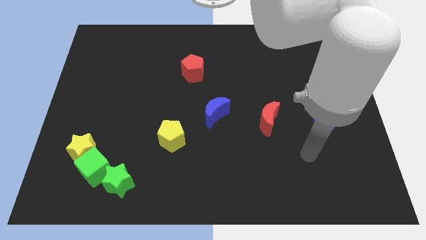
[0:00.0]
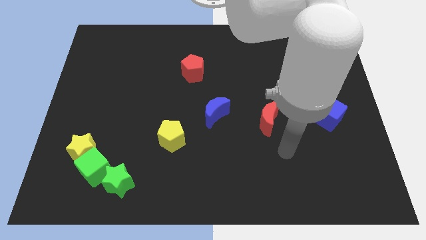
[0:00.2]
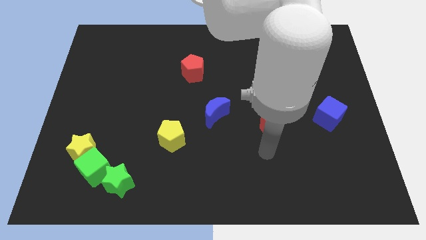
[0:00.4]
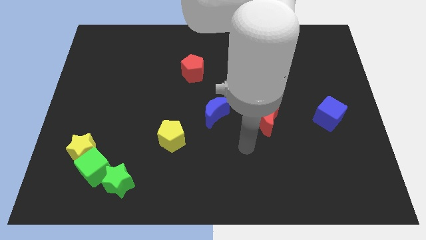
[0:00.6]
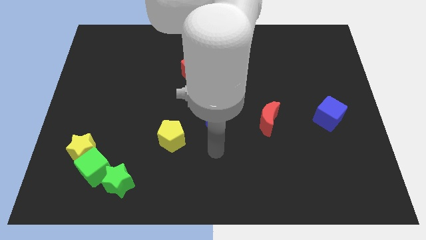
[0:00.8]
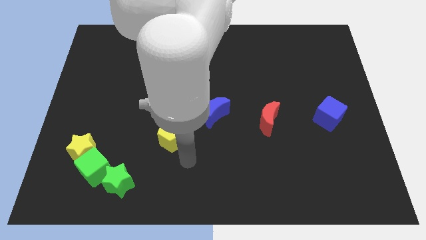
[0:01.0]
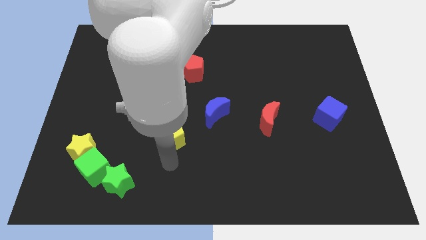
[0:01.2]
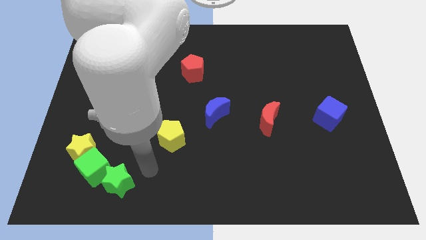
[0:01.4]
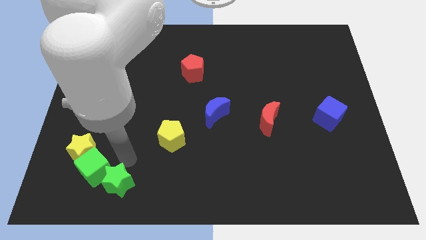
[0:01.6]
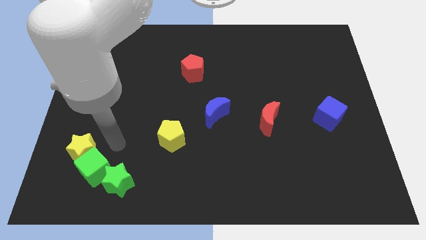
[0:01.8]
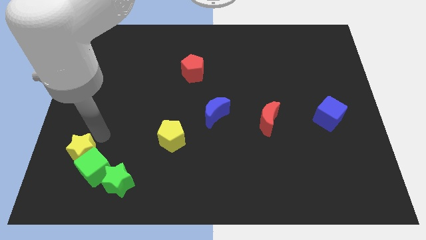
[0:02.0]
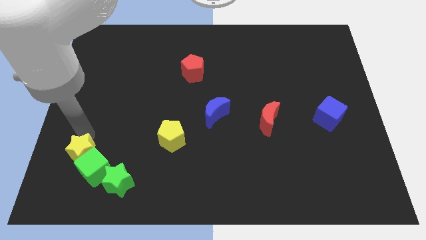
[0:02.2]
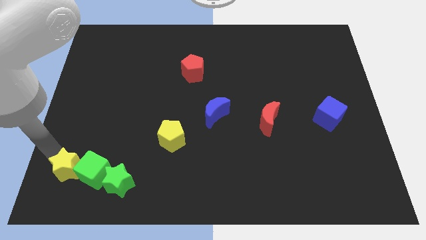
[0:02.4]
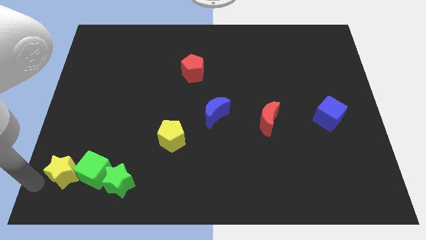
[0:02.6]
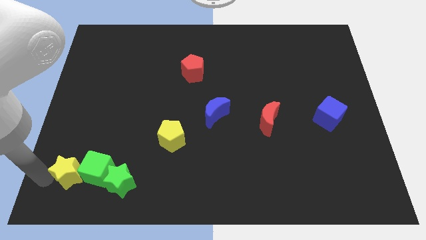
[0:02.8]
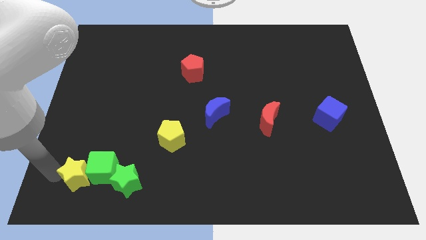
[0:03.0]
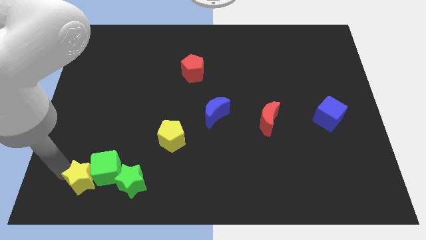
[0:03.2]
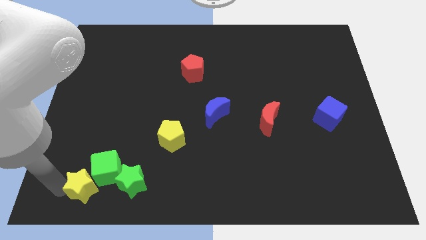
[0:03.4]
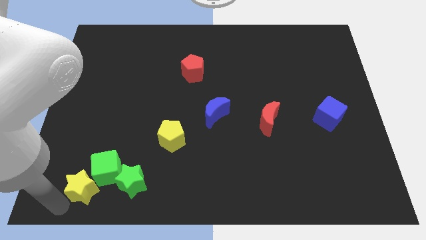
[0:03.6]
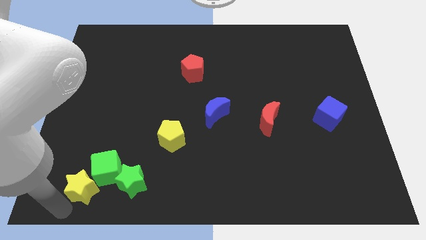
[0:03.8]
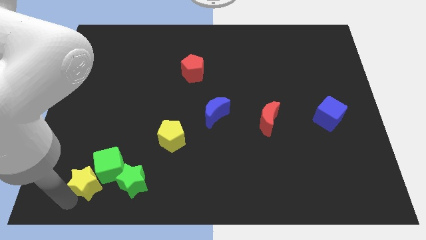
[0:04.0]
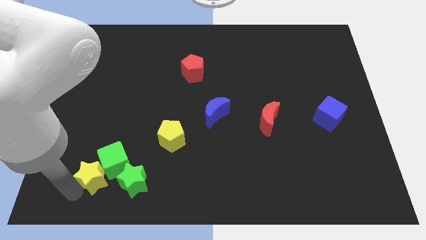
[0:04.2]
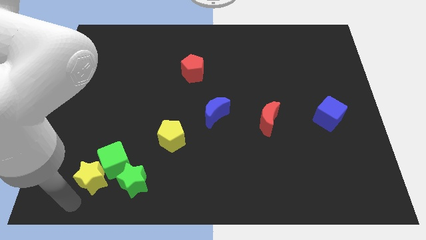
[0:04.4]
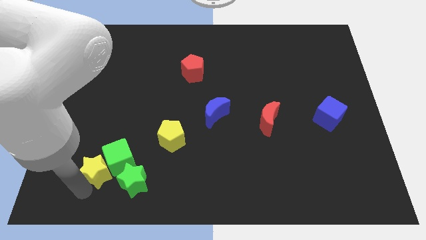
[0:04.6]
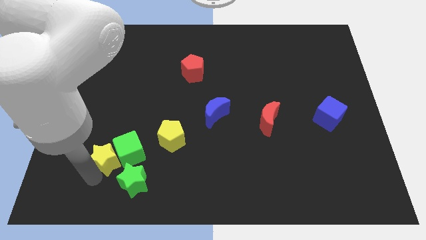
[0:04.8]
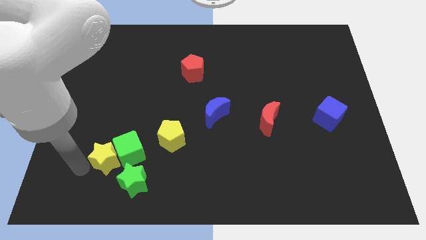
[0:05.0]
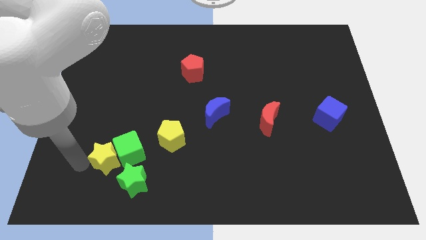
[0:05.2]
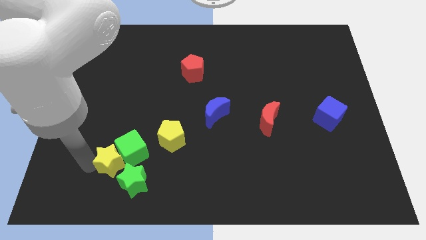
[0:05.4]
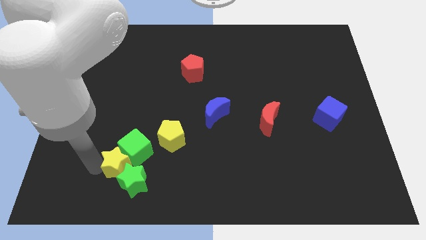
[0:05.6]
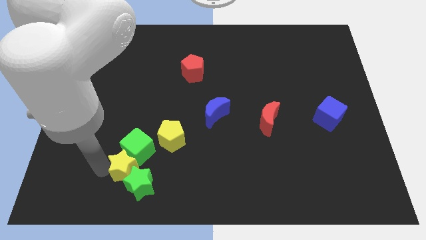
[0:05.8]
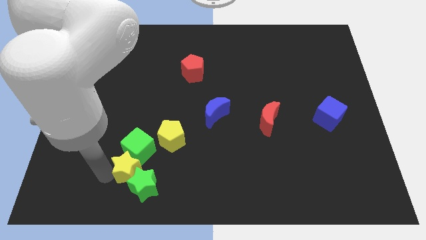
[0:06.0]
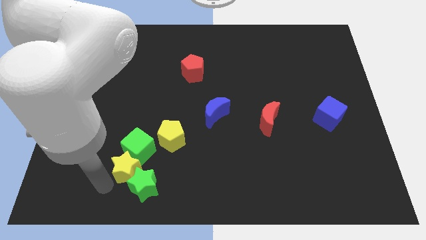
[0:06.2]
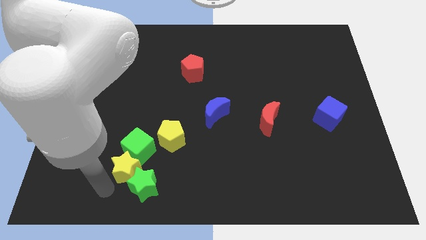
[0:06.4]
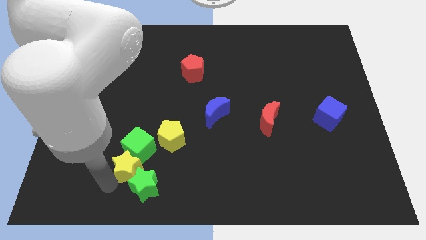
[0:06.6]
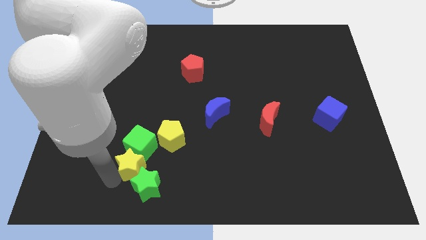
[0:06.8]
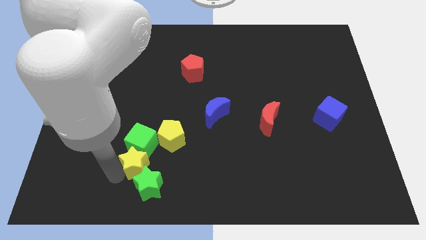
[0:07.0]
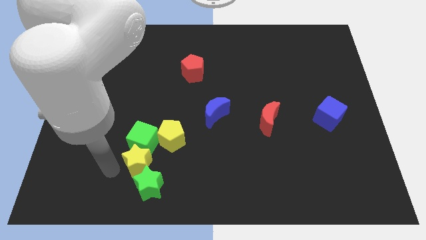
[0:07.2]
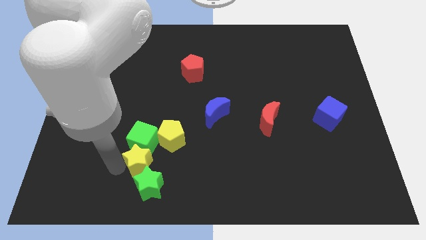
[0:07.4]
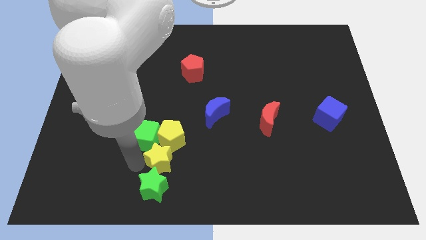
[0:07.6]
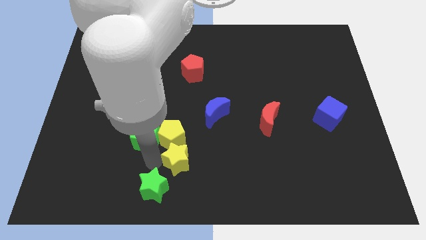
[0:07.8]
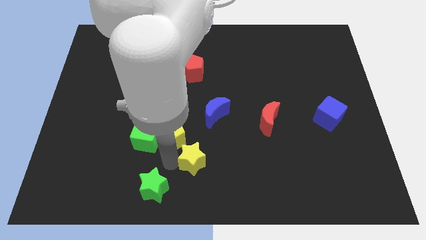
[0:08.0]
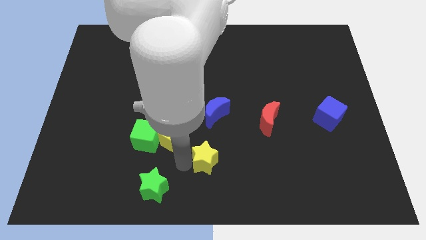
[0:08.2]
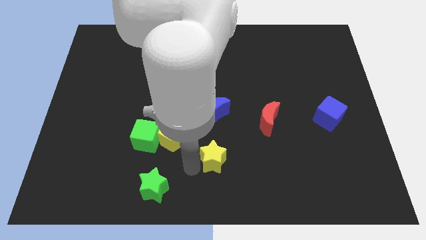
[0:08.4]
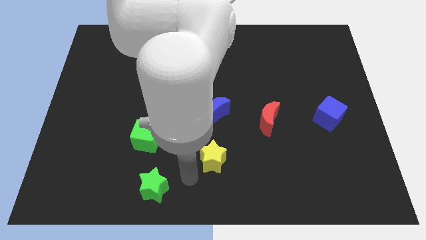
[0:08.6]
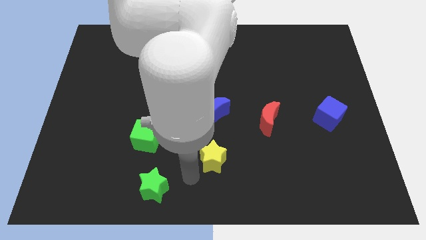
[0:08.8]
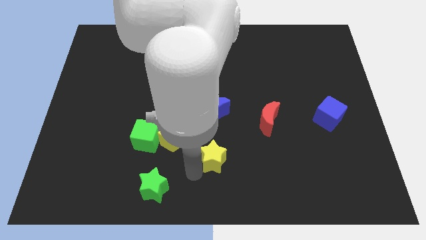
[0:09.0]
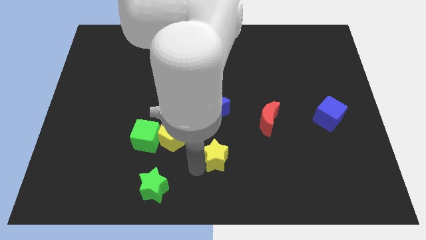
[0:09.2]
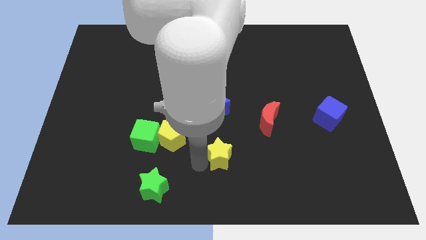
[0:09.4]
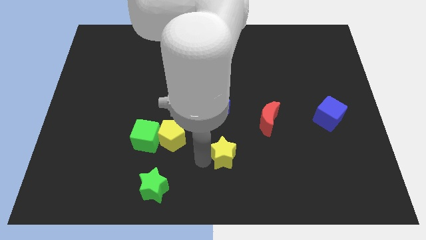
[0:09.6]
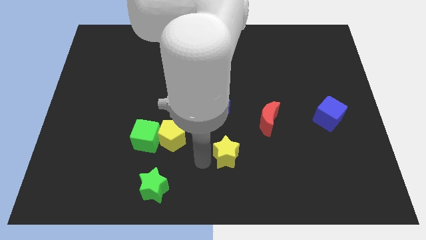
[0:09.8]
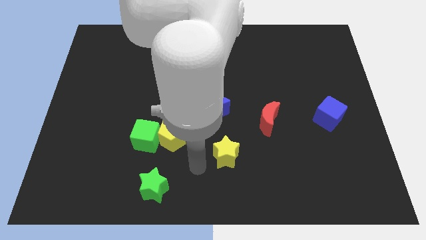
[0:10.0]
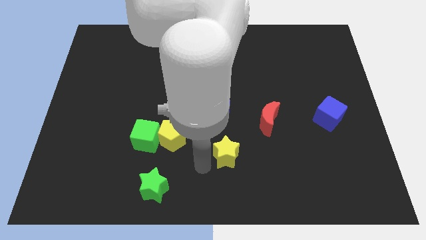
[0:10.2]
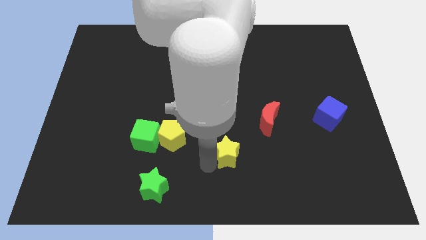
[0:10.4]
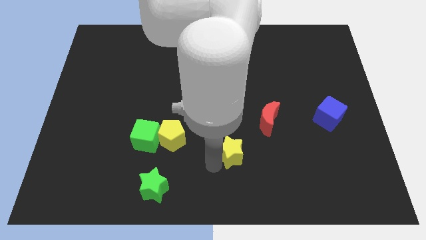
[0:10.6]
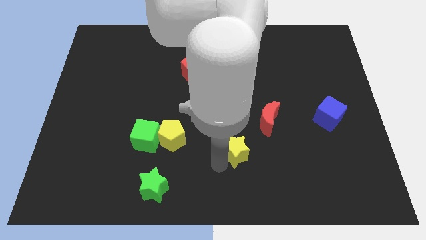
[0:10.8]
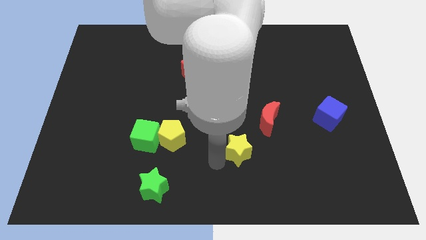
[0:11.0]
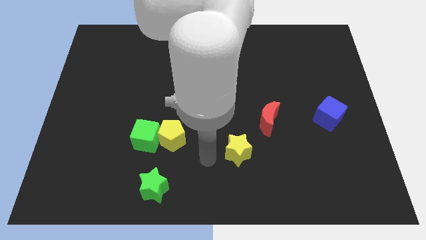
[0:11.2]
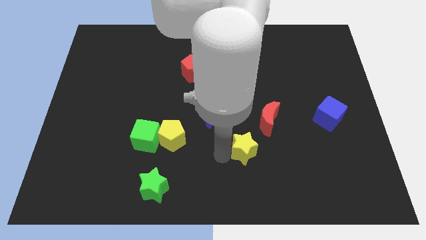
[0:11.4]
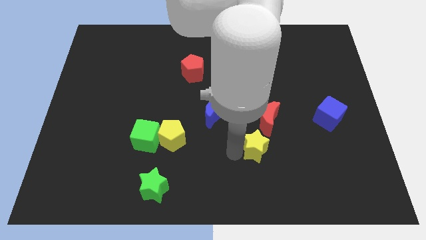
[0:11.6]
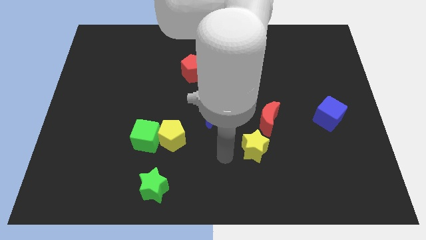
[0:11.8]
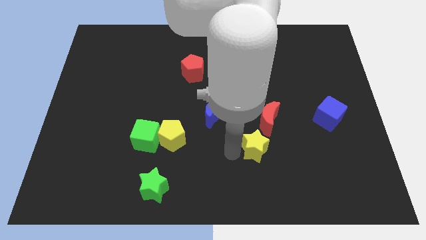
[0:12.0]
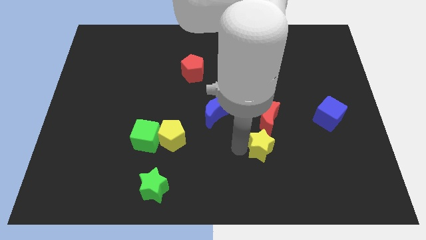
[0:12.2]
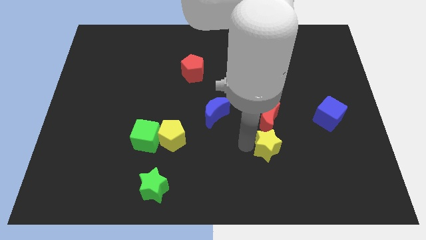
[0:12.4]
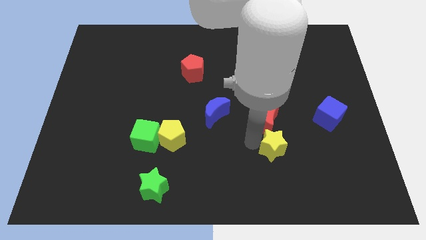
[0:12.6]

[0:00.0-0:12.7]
put the yellow star to the bottom right side of the red moon

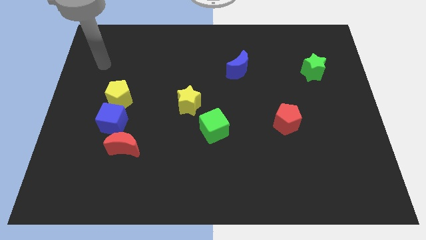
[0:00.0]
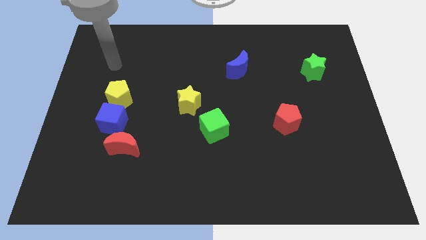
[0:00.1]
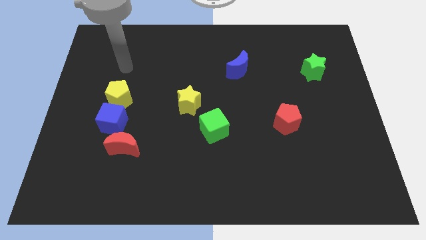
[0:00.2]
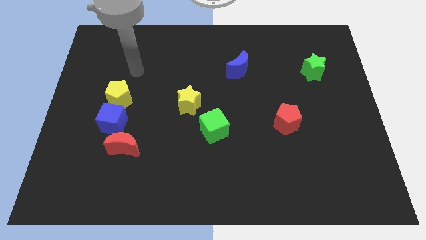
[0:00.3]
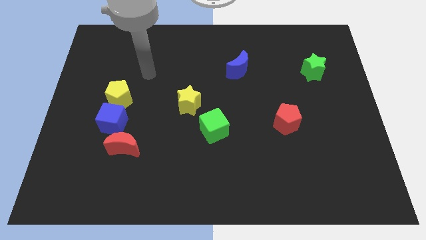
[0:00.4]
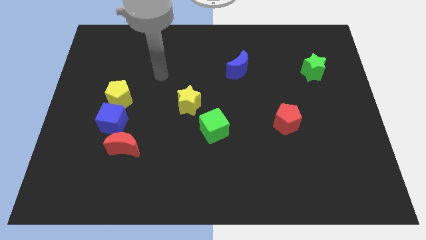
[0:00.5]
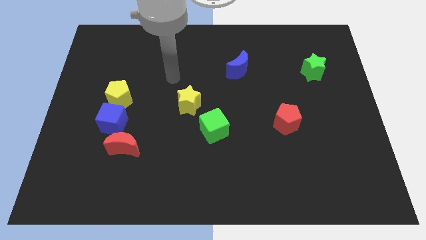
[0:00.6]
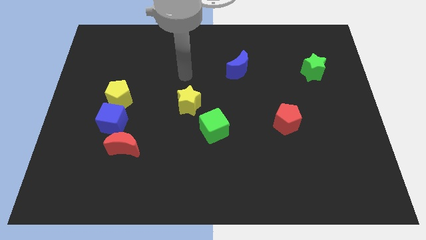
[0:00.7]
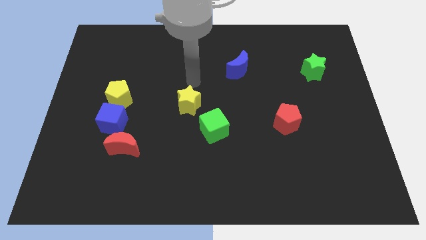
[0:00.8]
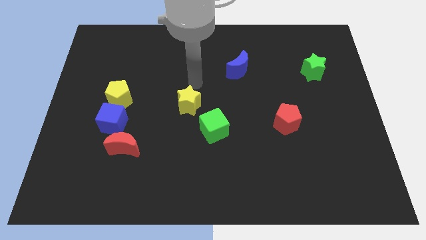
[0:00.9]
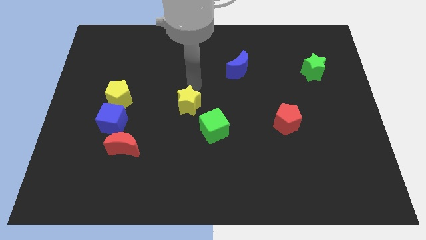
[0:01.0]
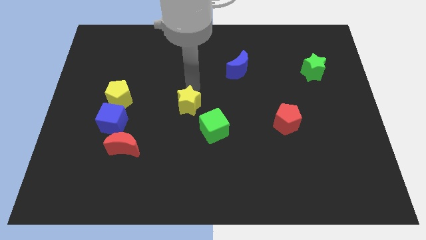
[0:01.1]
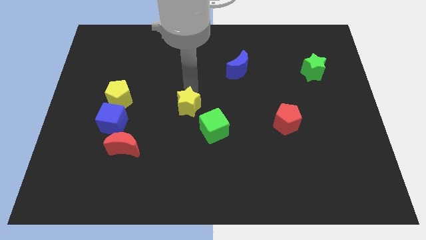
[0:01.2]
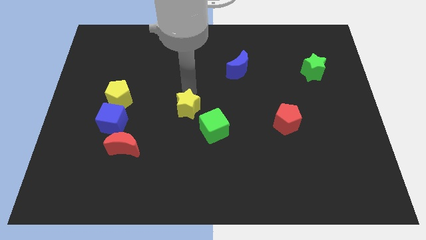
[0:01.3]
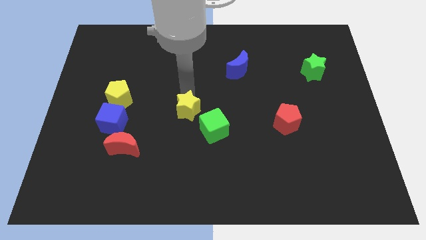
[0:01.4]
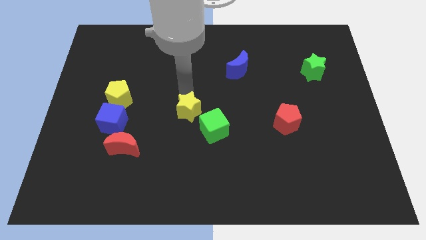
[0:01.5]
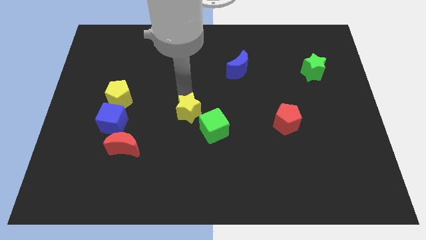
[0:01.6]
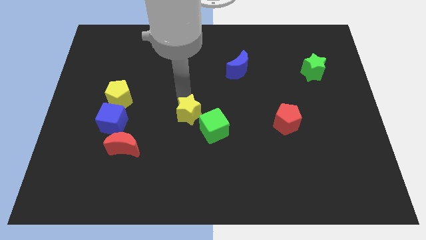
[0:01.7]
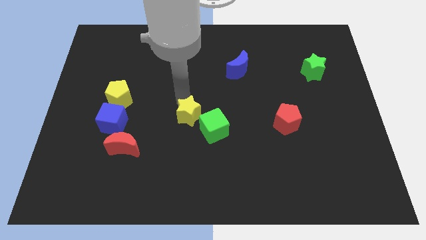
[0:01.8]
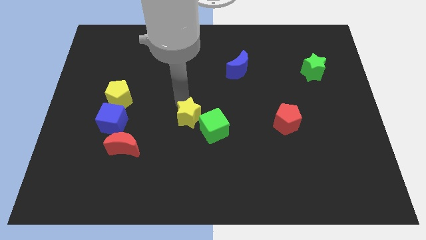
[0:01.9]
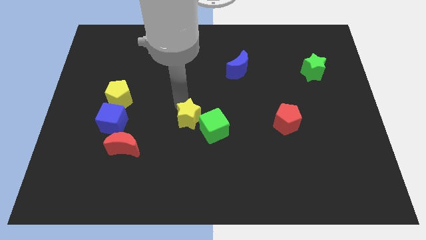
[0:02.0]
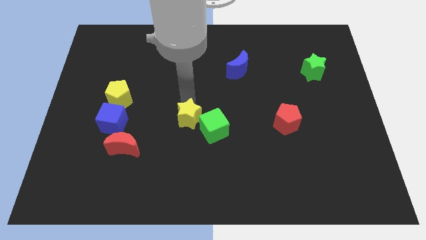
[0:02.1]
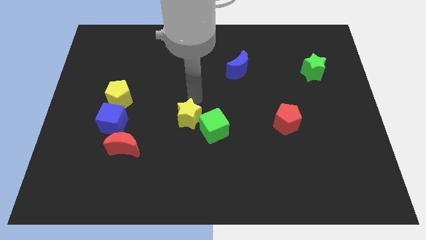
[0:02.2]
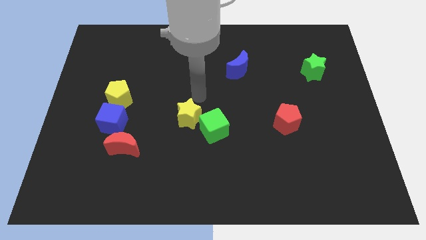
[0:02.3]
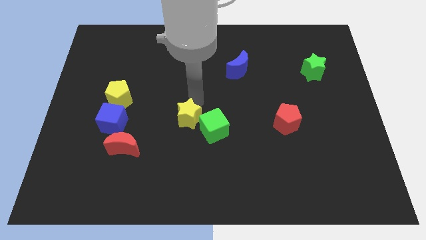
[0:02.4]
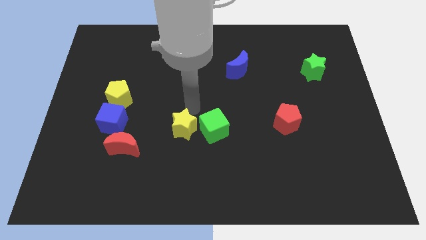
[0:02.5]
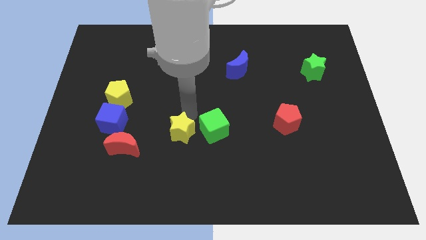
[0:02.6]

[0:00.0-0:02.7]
slide the yellow star right of the red moon
